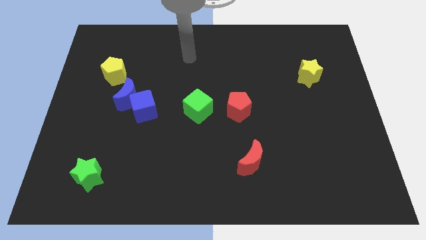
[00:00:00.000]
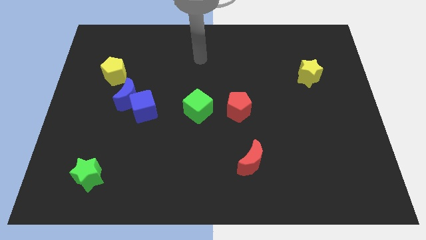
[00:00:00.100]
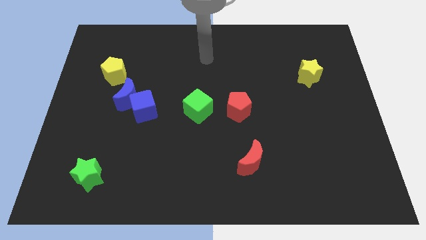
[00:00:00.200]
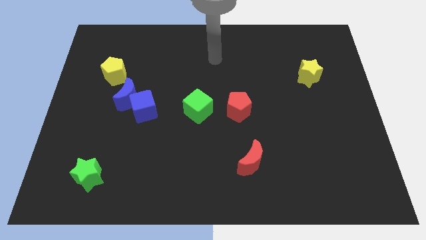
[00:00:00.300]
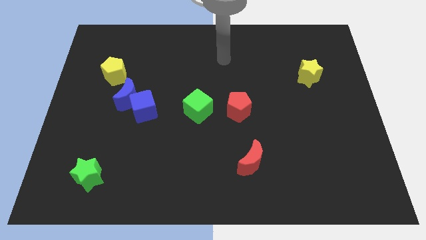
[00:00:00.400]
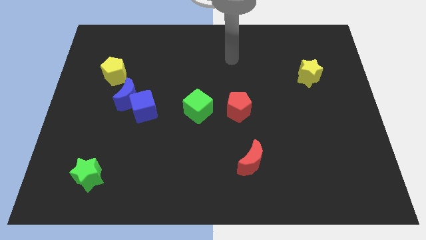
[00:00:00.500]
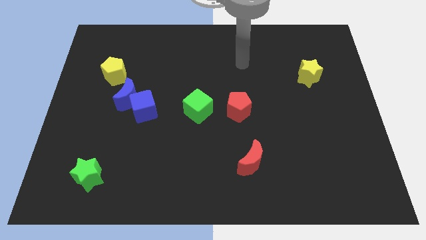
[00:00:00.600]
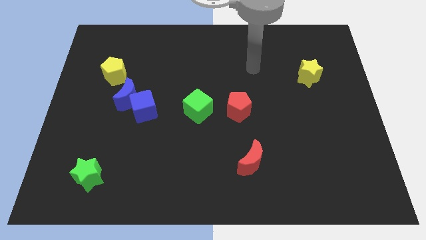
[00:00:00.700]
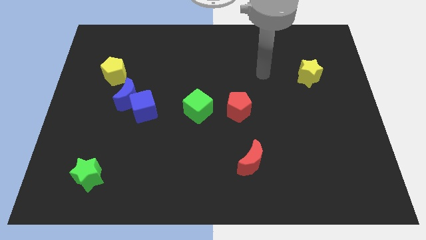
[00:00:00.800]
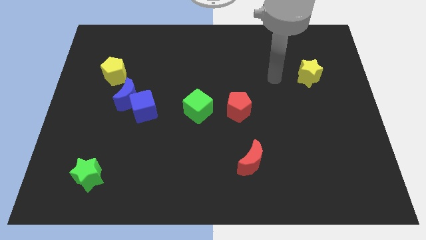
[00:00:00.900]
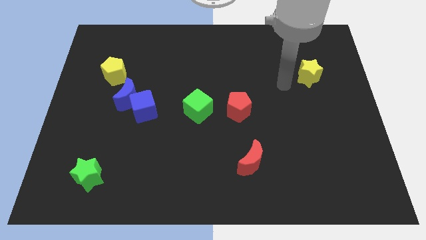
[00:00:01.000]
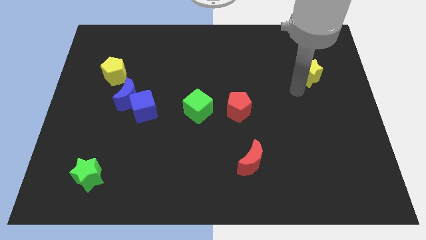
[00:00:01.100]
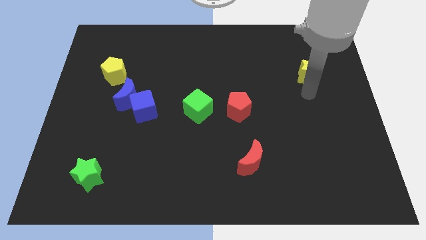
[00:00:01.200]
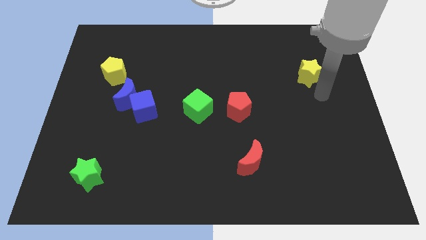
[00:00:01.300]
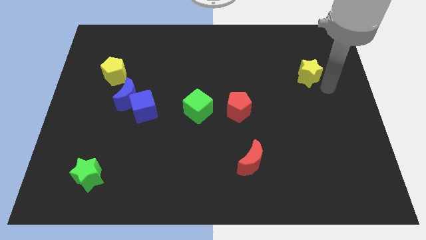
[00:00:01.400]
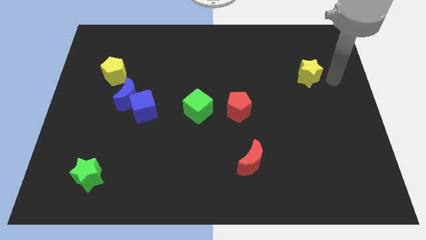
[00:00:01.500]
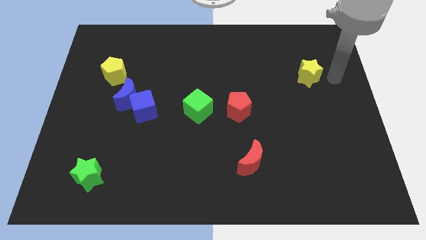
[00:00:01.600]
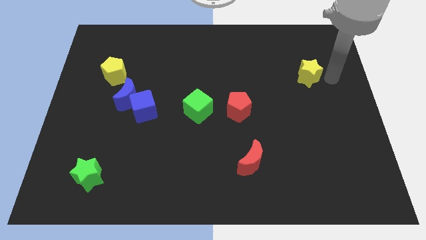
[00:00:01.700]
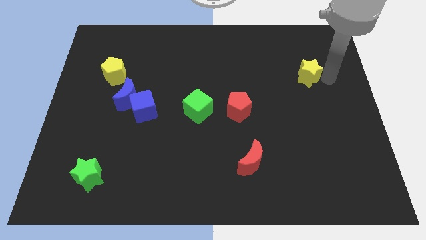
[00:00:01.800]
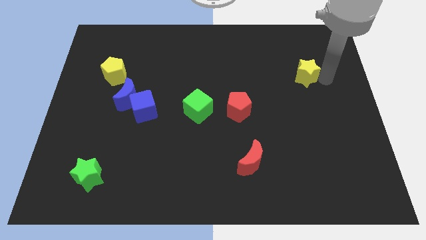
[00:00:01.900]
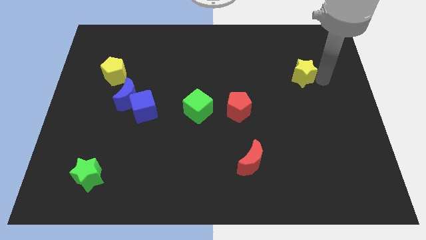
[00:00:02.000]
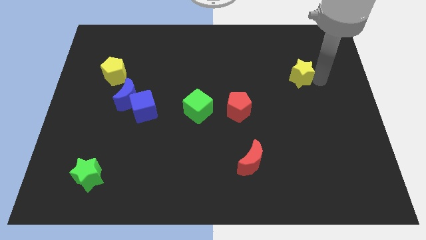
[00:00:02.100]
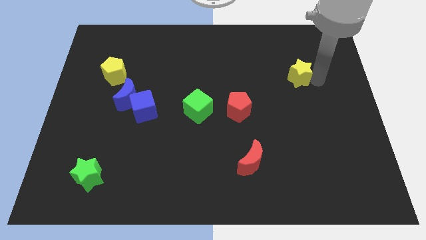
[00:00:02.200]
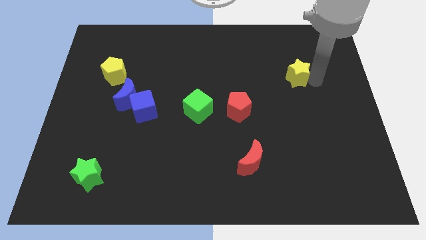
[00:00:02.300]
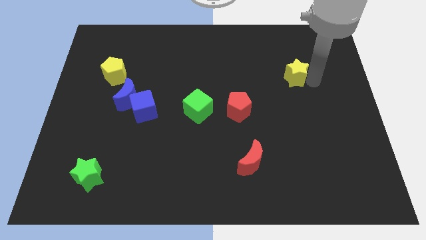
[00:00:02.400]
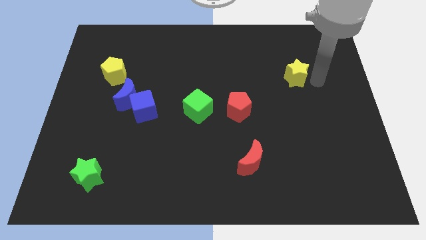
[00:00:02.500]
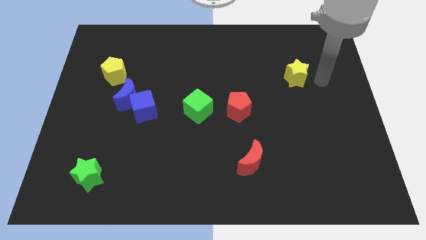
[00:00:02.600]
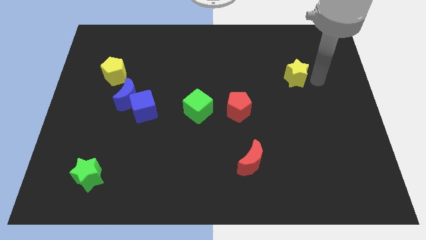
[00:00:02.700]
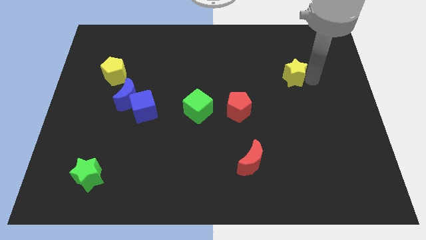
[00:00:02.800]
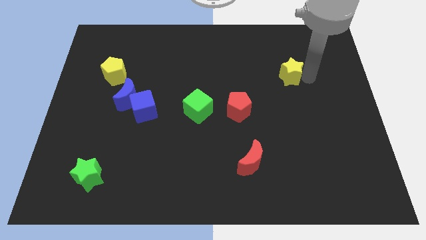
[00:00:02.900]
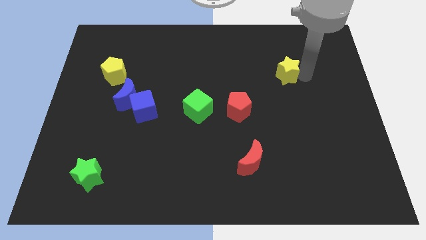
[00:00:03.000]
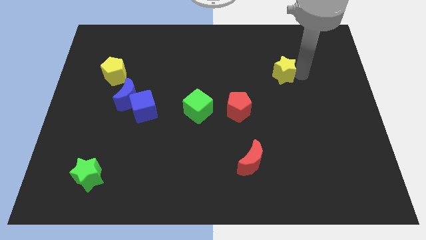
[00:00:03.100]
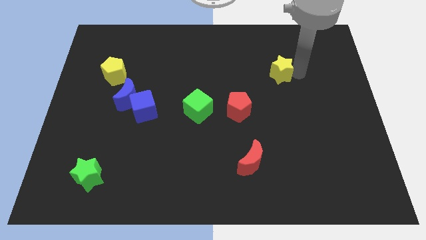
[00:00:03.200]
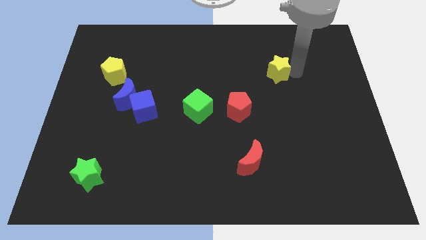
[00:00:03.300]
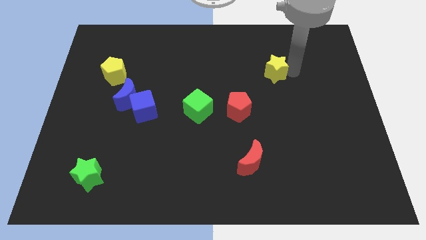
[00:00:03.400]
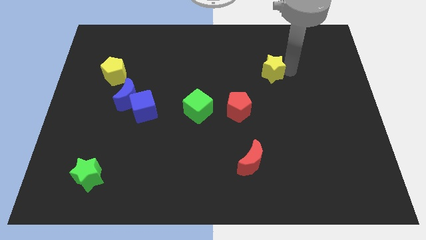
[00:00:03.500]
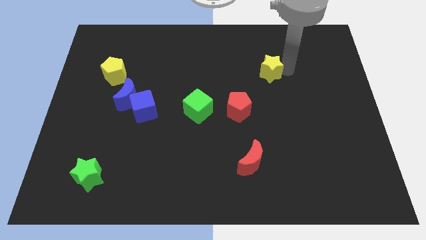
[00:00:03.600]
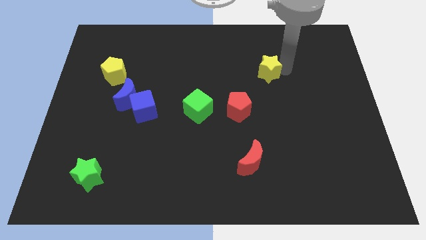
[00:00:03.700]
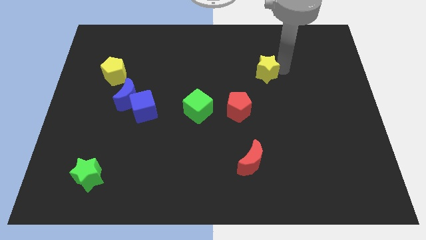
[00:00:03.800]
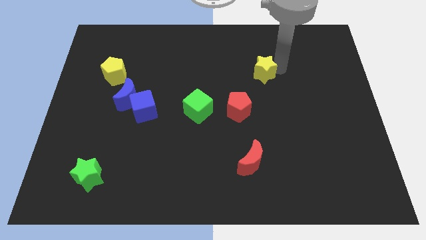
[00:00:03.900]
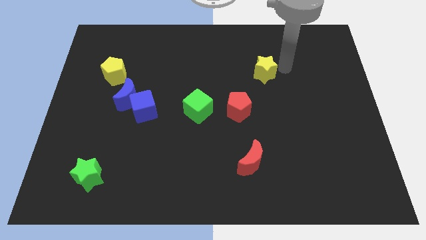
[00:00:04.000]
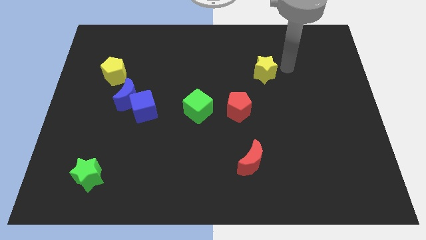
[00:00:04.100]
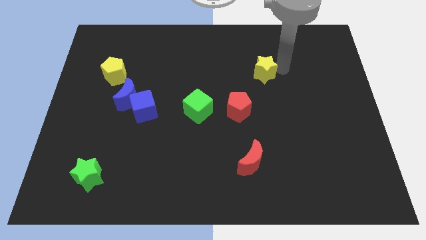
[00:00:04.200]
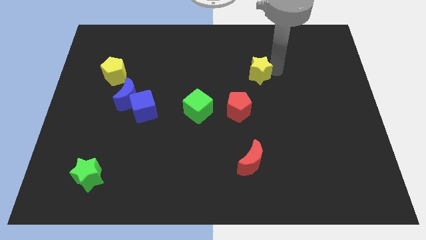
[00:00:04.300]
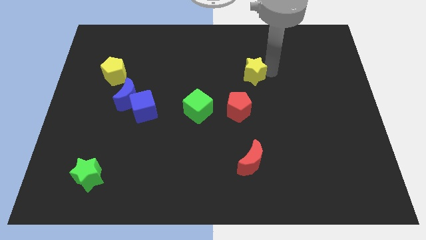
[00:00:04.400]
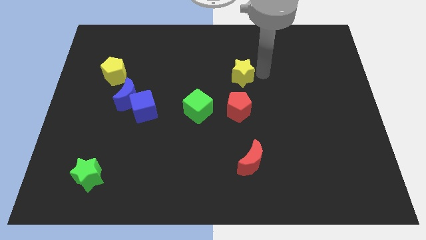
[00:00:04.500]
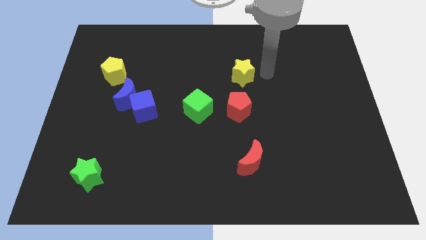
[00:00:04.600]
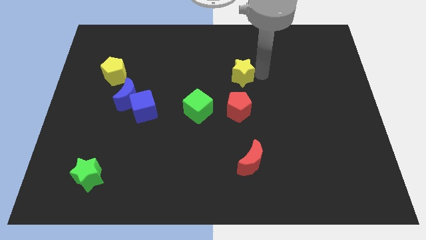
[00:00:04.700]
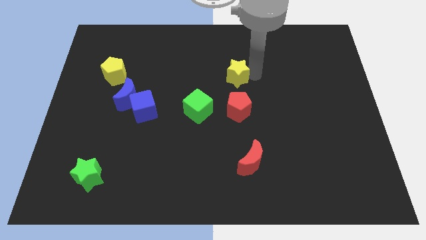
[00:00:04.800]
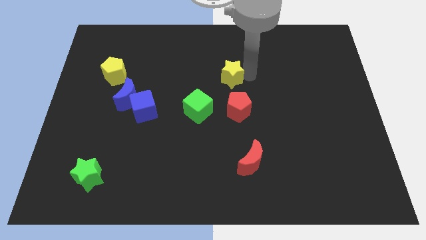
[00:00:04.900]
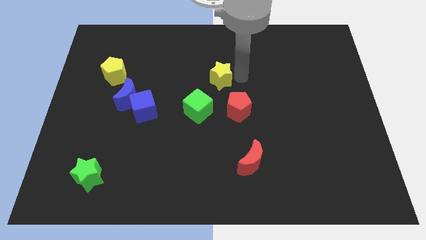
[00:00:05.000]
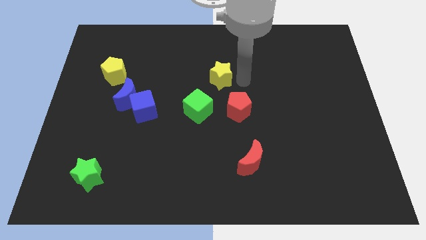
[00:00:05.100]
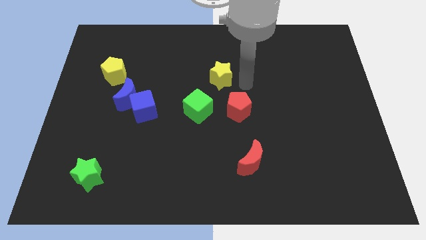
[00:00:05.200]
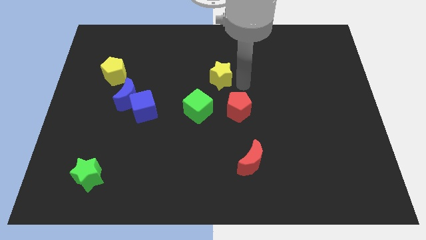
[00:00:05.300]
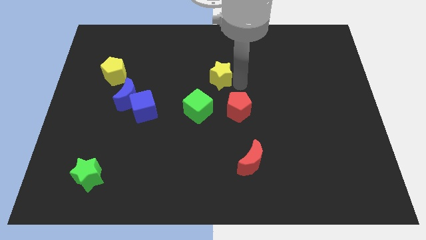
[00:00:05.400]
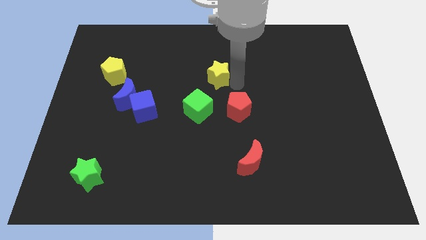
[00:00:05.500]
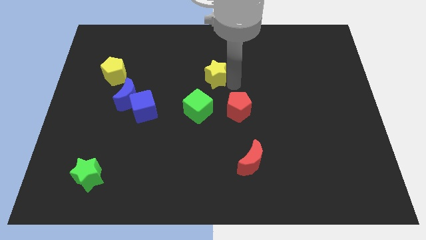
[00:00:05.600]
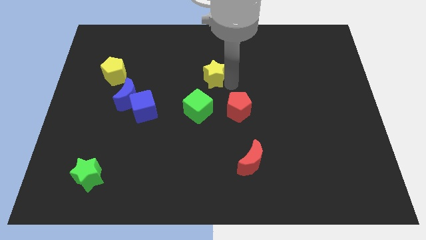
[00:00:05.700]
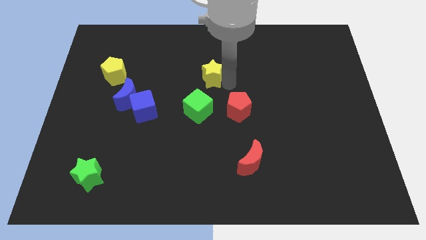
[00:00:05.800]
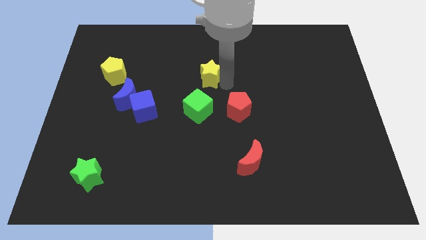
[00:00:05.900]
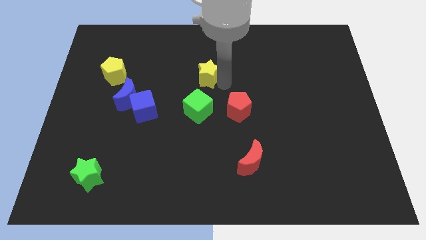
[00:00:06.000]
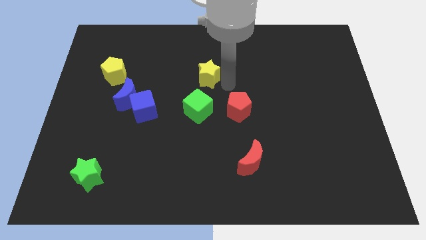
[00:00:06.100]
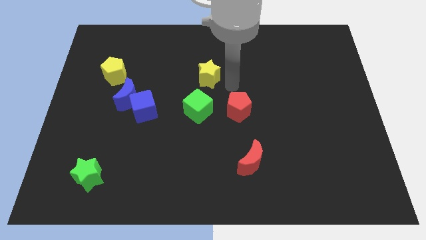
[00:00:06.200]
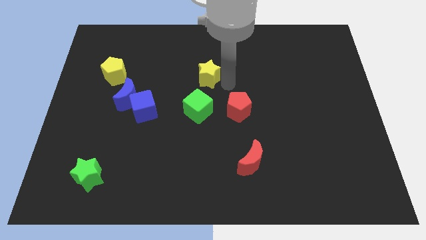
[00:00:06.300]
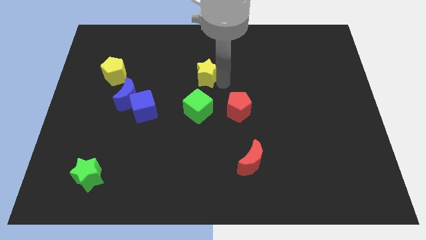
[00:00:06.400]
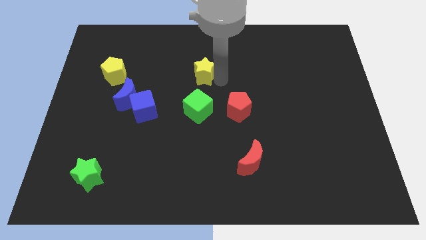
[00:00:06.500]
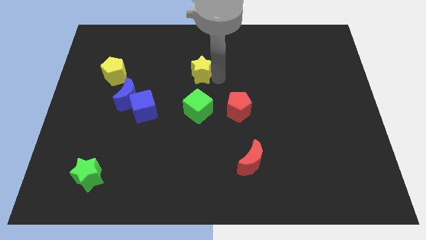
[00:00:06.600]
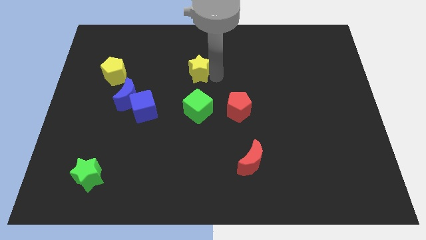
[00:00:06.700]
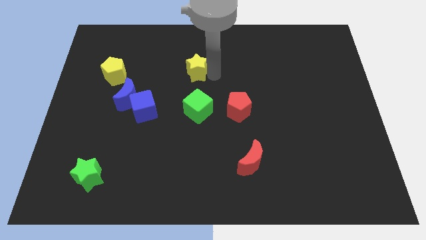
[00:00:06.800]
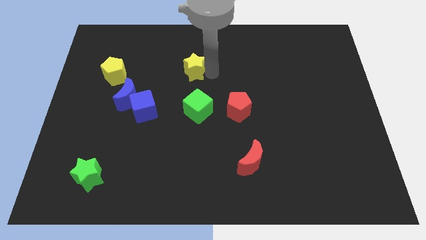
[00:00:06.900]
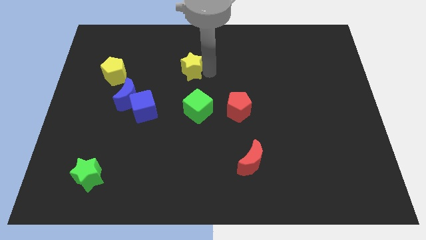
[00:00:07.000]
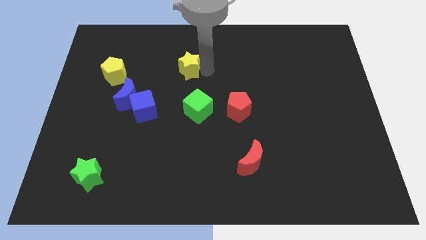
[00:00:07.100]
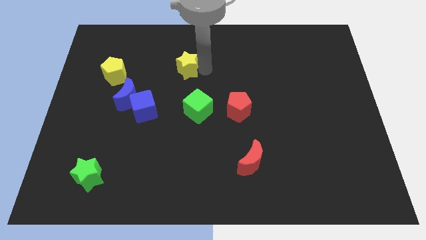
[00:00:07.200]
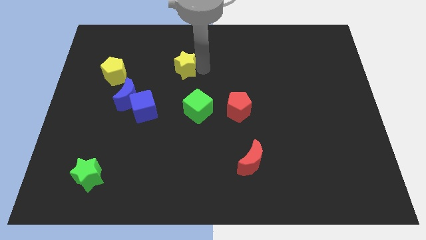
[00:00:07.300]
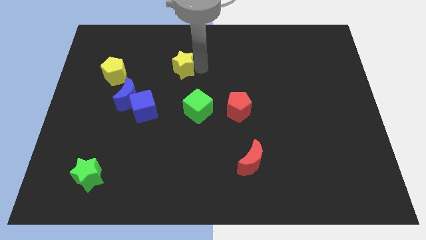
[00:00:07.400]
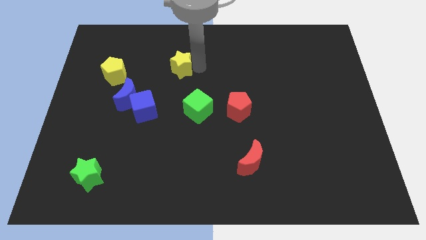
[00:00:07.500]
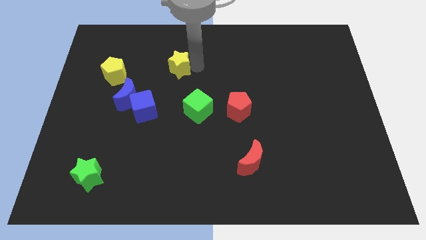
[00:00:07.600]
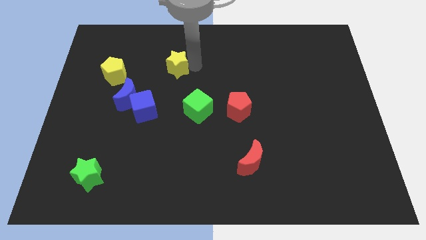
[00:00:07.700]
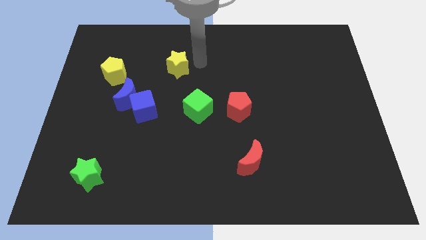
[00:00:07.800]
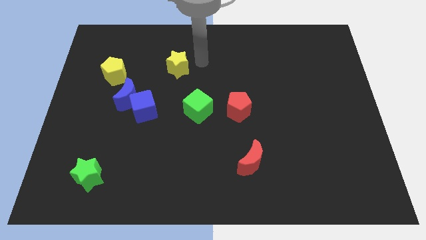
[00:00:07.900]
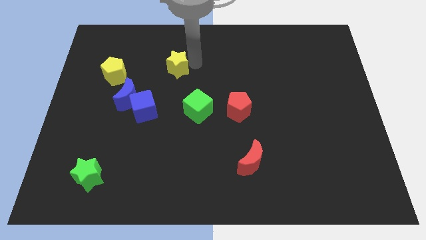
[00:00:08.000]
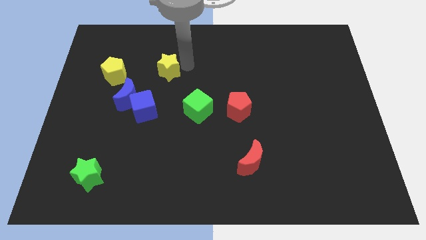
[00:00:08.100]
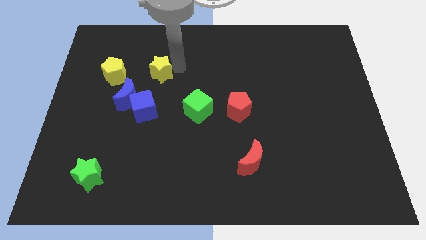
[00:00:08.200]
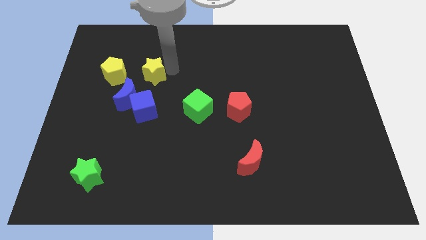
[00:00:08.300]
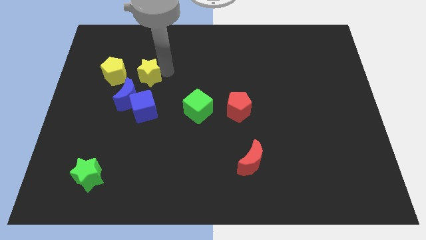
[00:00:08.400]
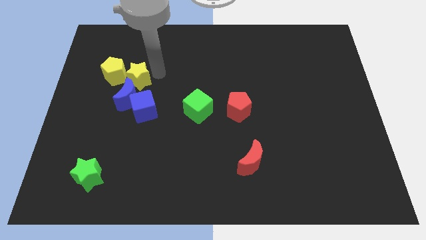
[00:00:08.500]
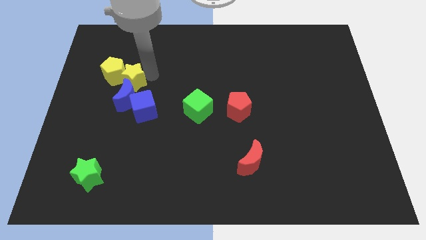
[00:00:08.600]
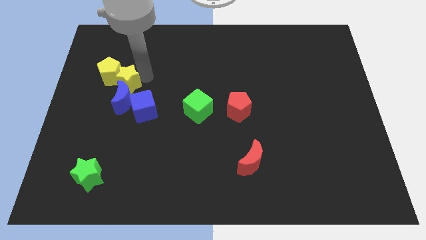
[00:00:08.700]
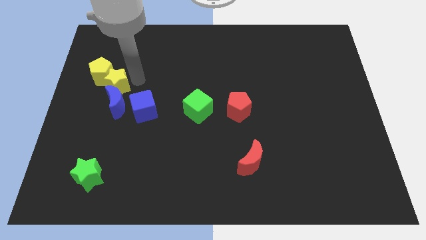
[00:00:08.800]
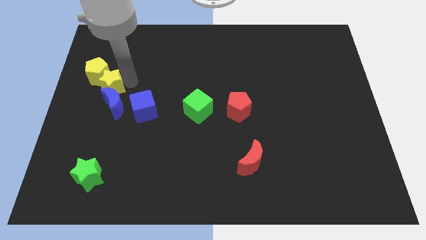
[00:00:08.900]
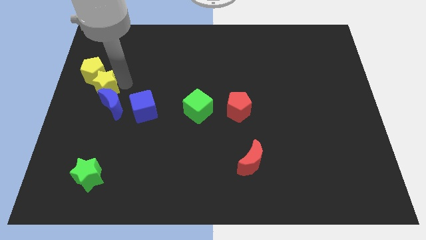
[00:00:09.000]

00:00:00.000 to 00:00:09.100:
push the yellow star to the left side of the board
